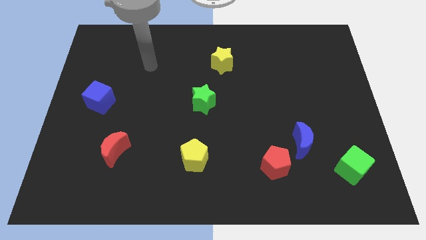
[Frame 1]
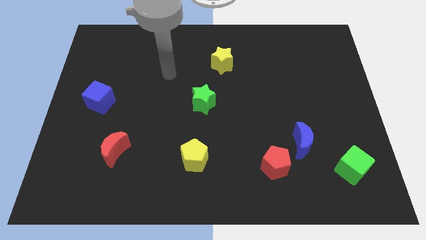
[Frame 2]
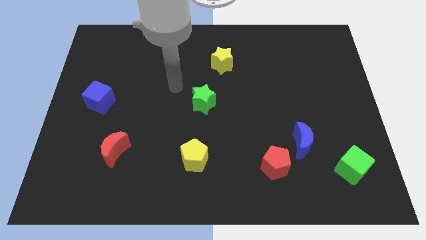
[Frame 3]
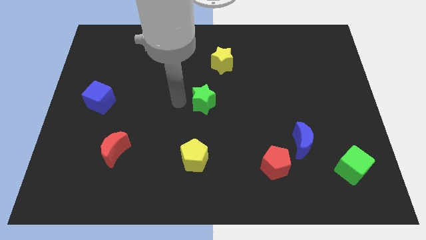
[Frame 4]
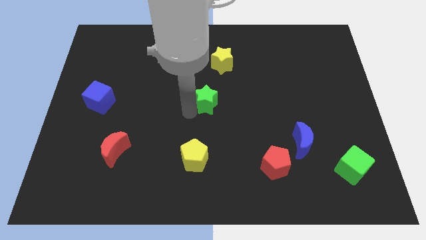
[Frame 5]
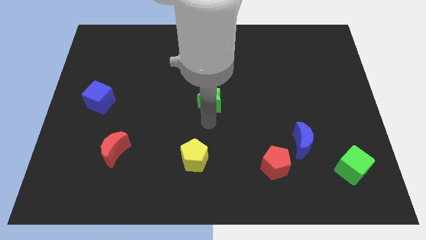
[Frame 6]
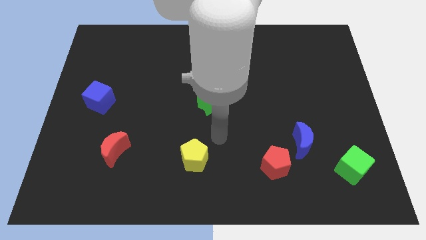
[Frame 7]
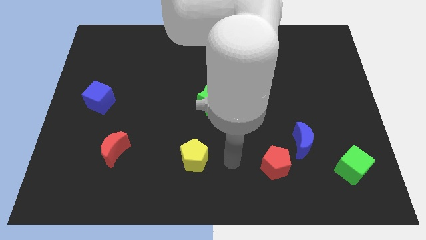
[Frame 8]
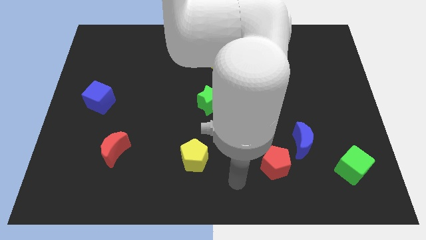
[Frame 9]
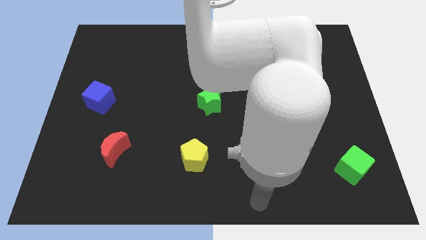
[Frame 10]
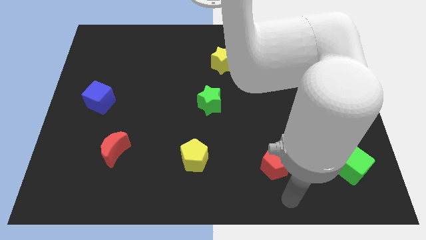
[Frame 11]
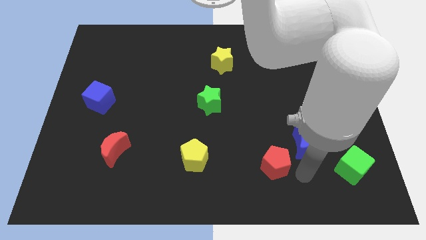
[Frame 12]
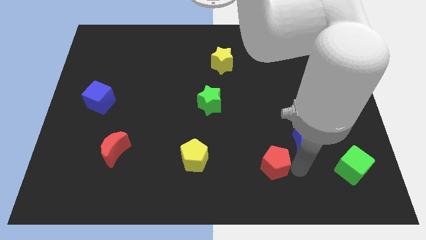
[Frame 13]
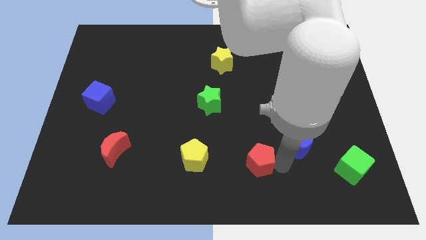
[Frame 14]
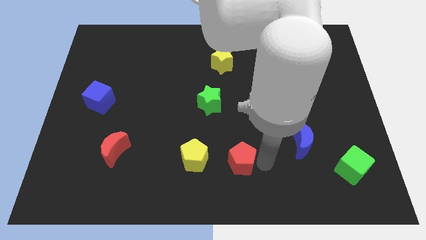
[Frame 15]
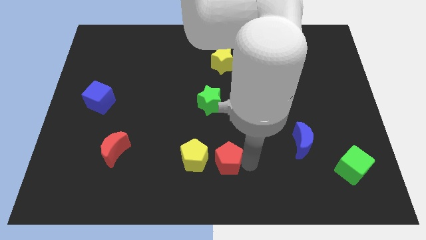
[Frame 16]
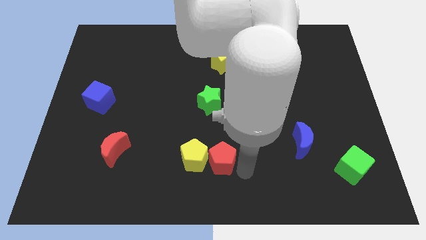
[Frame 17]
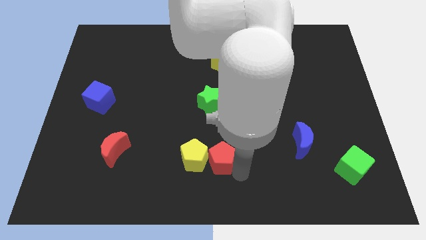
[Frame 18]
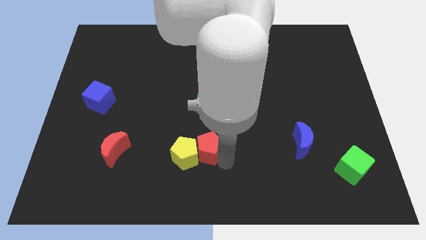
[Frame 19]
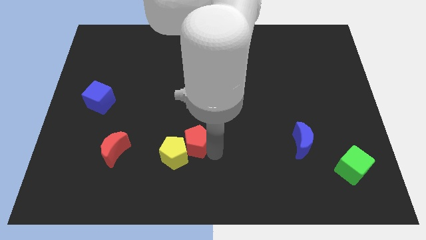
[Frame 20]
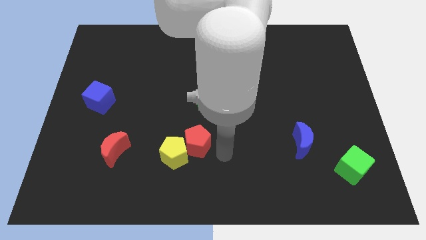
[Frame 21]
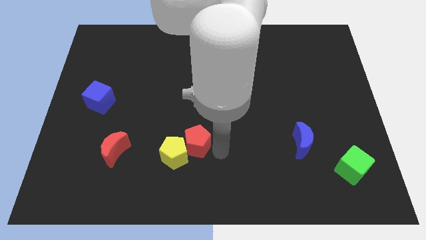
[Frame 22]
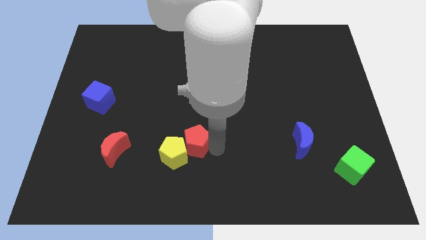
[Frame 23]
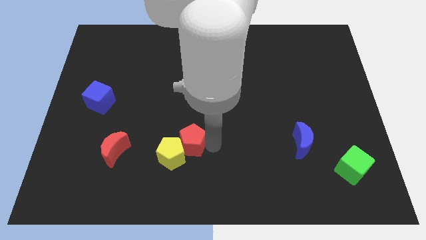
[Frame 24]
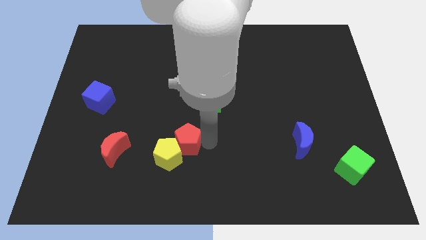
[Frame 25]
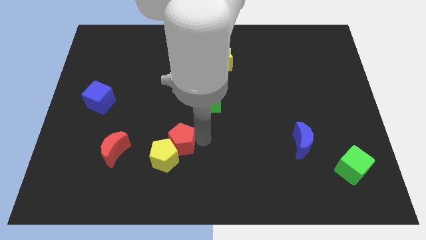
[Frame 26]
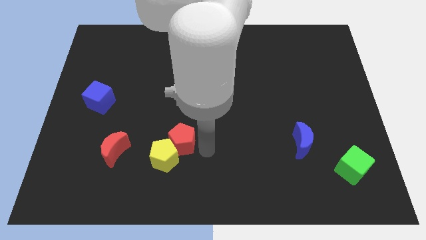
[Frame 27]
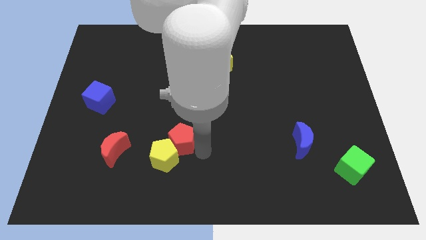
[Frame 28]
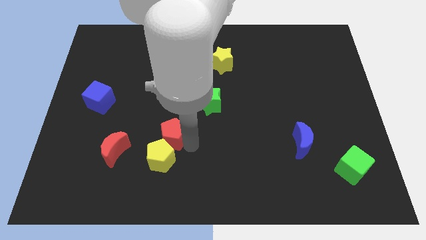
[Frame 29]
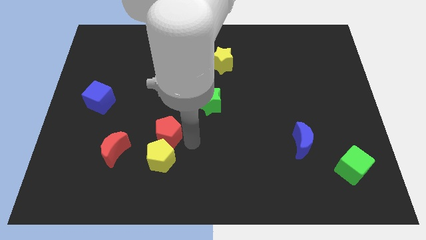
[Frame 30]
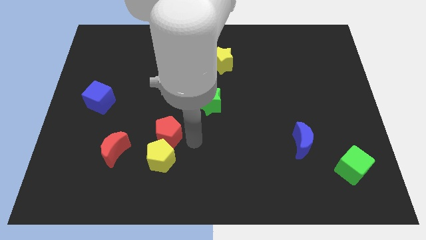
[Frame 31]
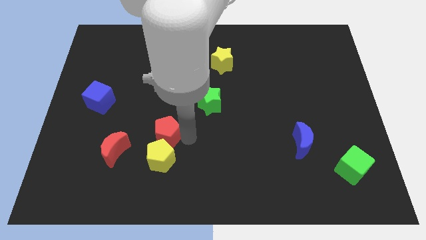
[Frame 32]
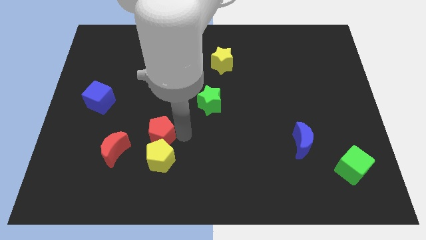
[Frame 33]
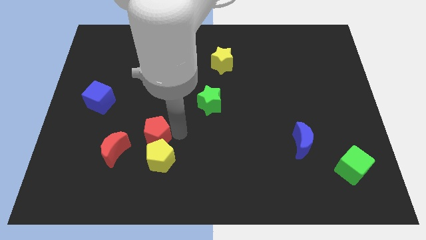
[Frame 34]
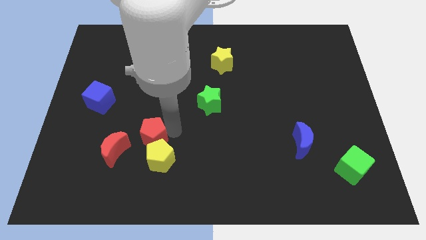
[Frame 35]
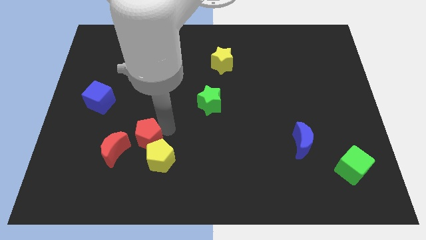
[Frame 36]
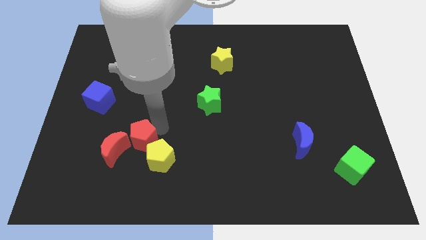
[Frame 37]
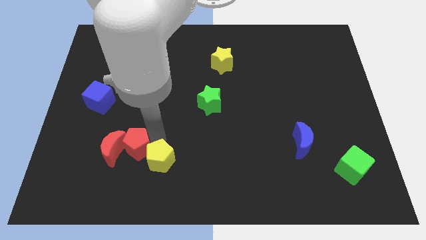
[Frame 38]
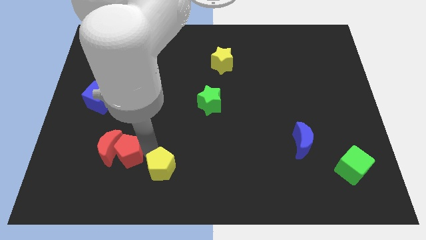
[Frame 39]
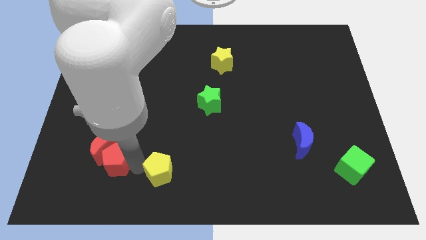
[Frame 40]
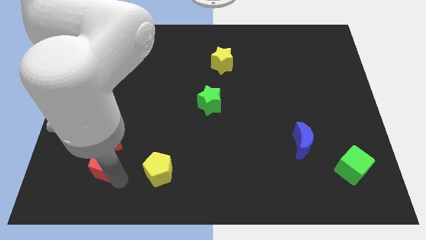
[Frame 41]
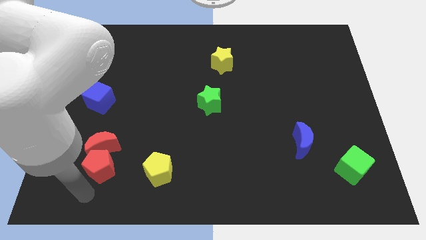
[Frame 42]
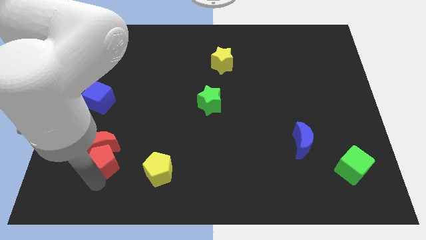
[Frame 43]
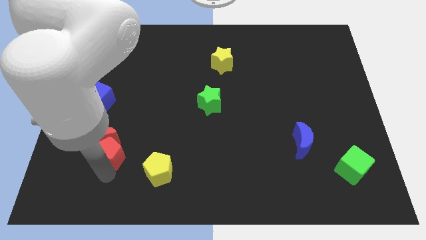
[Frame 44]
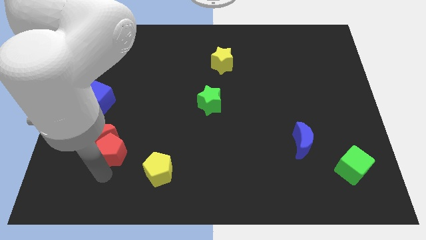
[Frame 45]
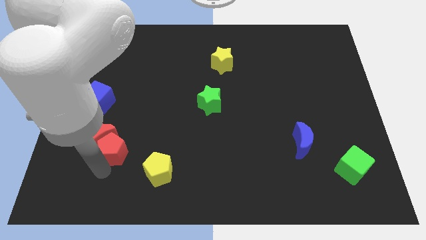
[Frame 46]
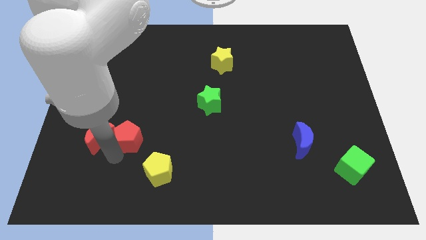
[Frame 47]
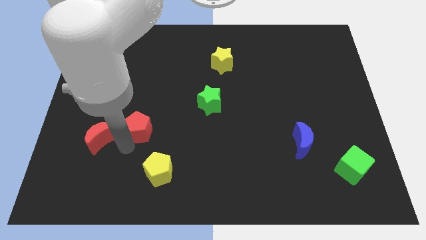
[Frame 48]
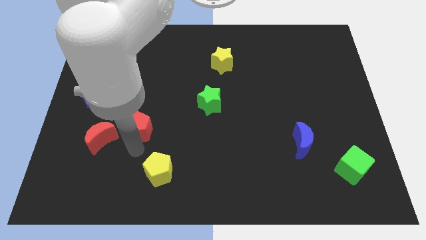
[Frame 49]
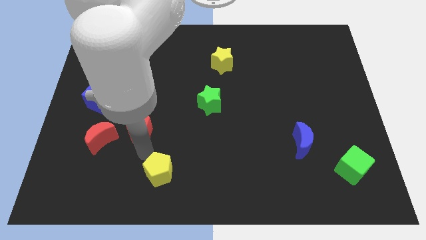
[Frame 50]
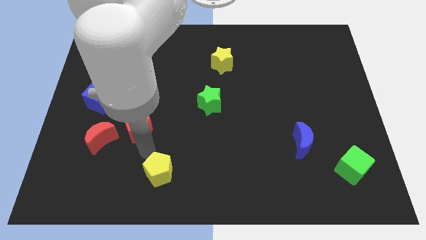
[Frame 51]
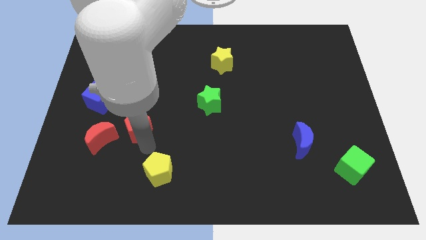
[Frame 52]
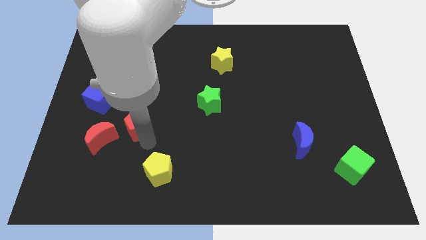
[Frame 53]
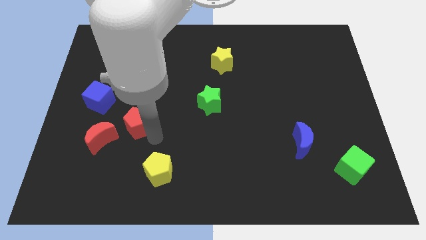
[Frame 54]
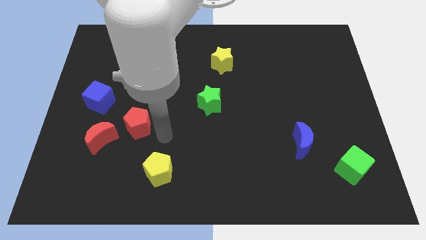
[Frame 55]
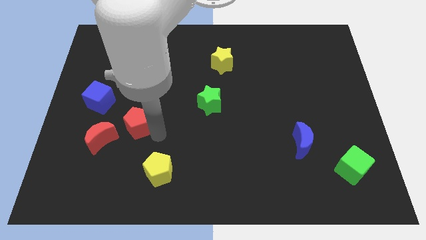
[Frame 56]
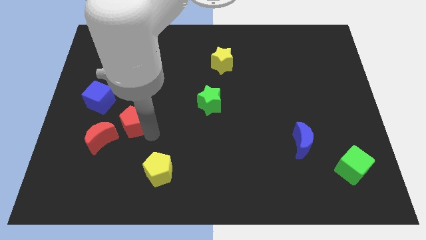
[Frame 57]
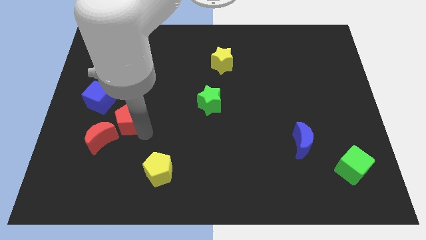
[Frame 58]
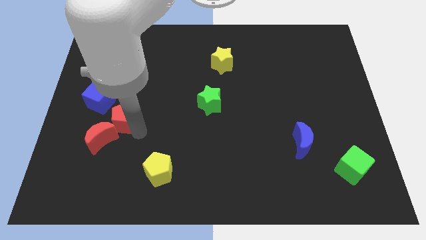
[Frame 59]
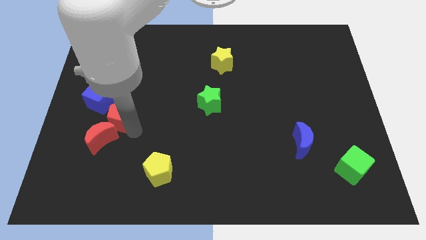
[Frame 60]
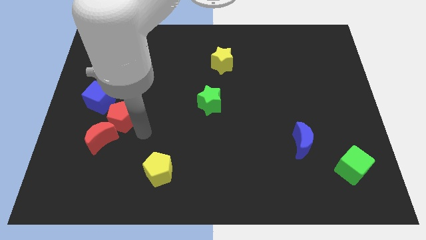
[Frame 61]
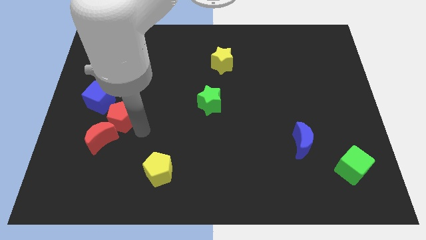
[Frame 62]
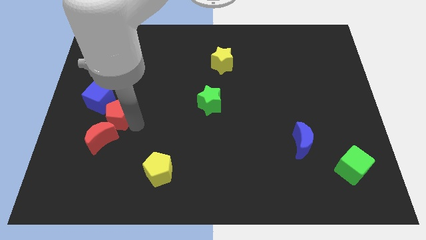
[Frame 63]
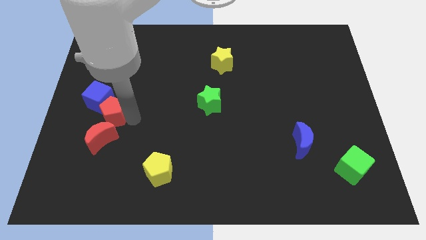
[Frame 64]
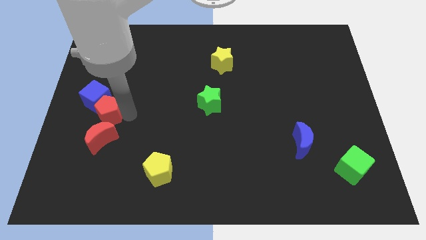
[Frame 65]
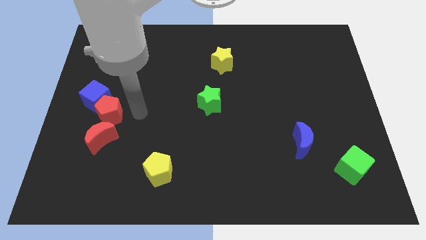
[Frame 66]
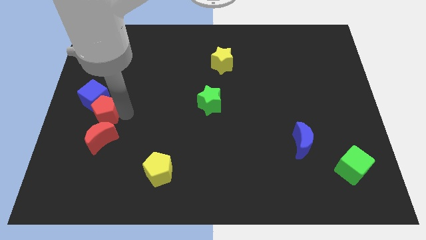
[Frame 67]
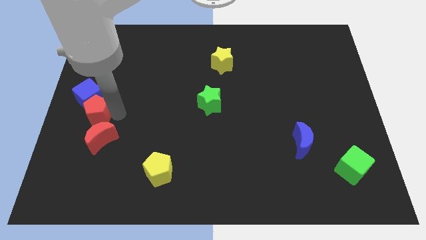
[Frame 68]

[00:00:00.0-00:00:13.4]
put the red pentagon to the left side
